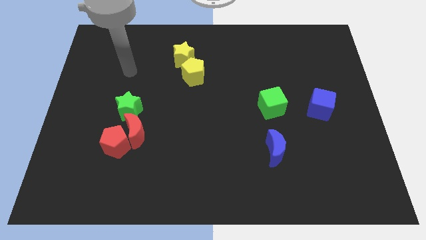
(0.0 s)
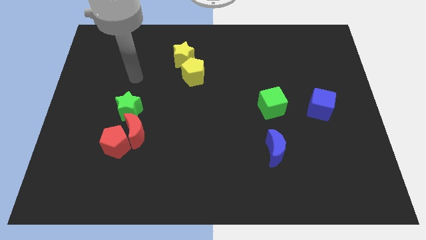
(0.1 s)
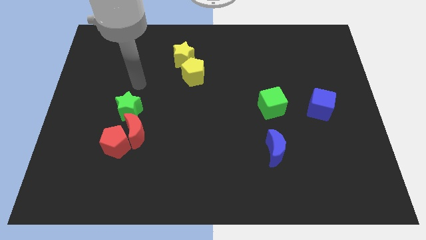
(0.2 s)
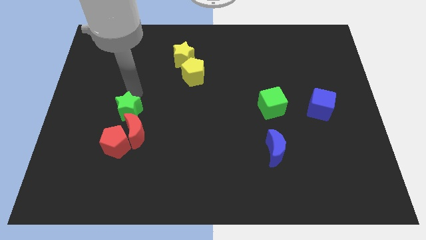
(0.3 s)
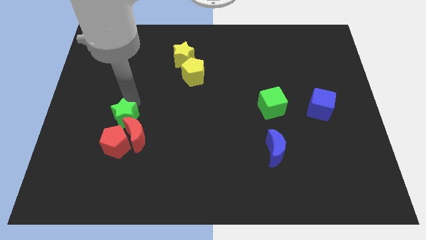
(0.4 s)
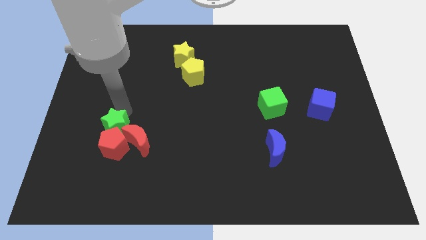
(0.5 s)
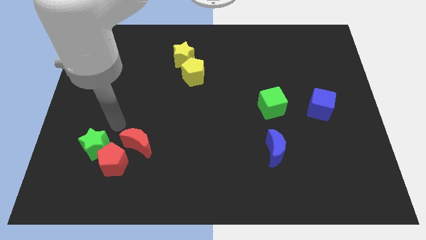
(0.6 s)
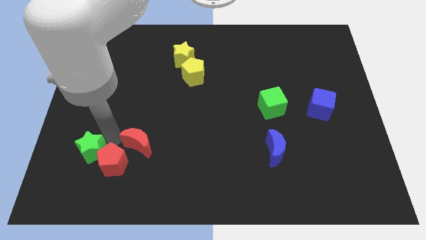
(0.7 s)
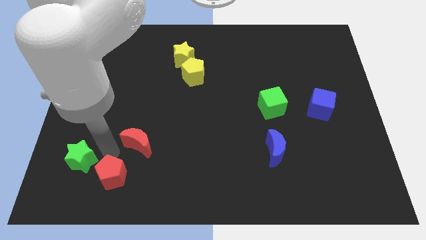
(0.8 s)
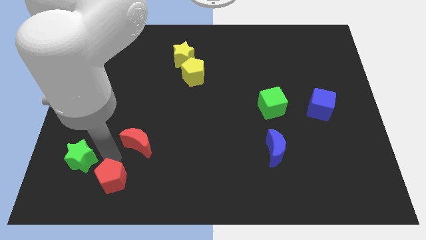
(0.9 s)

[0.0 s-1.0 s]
pull the red moon apart from the red pentagon and green star

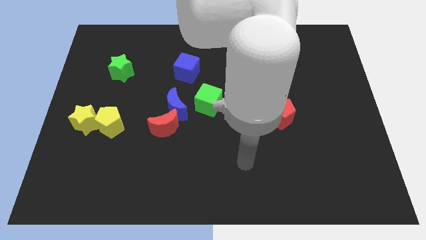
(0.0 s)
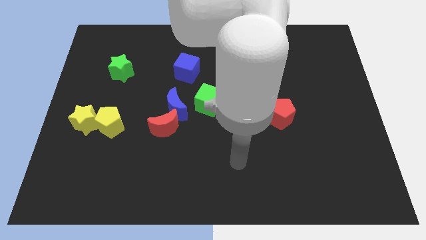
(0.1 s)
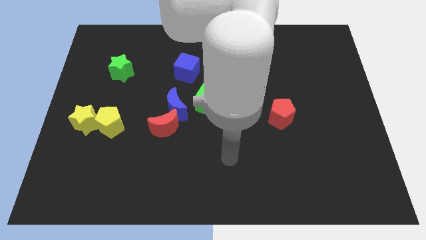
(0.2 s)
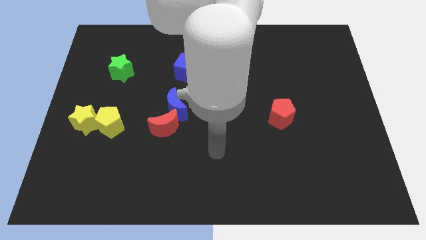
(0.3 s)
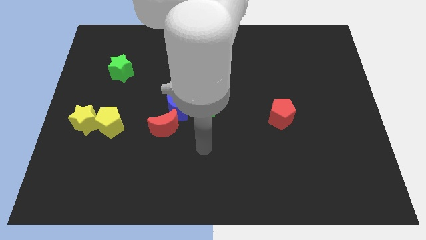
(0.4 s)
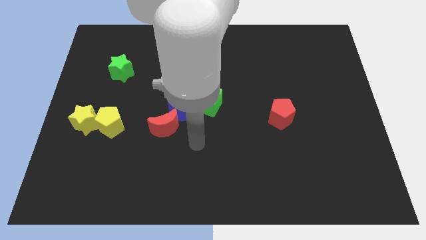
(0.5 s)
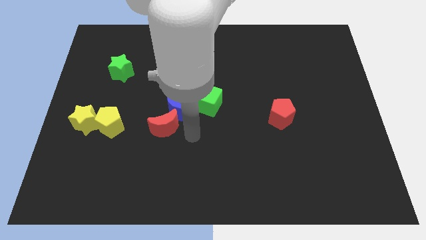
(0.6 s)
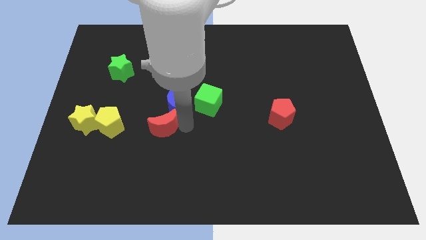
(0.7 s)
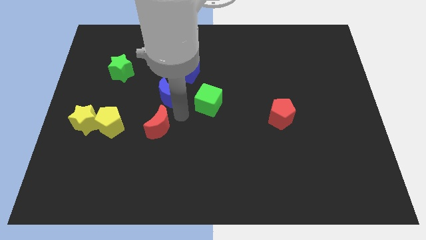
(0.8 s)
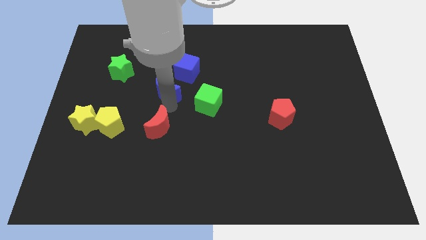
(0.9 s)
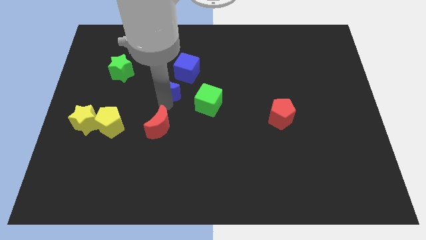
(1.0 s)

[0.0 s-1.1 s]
separate the red moon from the blue moon

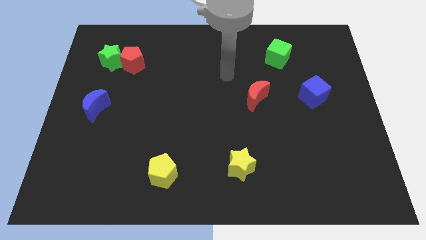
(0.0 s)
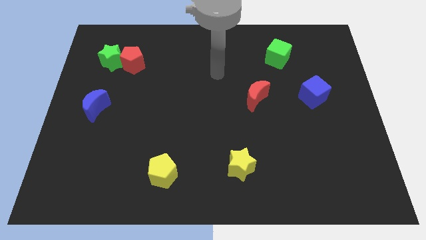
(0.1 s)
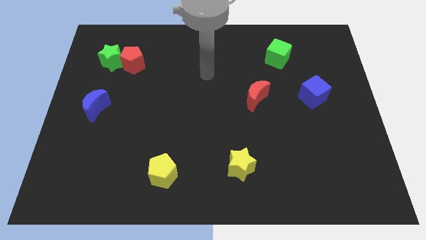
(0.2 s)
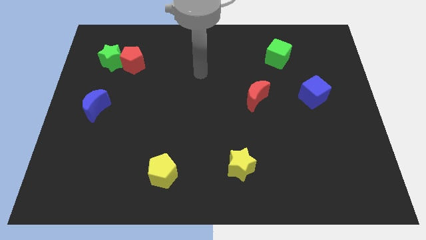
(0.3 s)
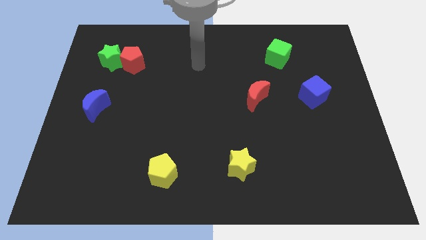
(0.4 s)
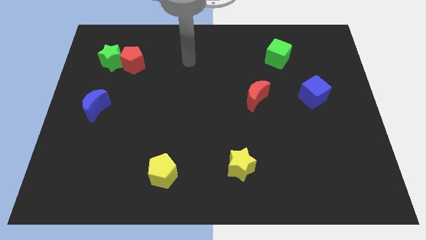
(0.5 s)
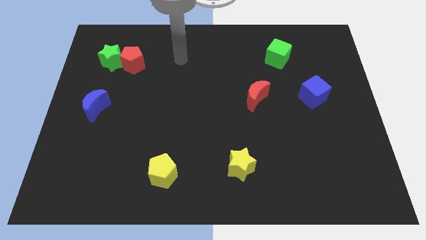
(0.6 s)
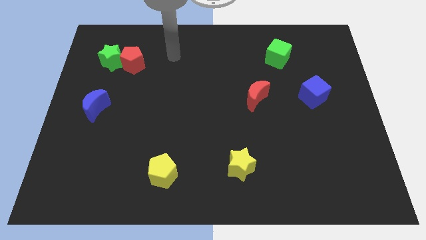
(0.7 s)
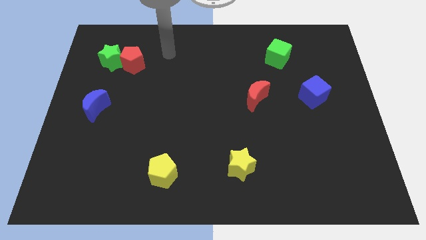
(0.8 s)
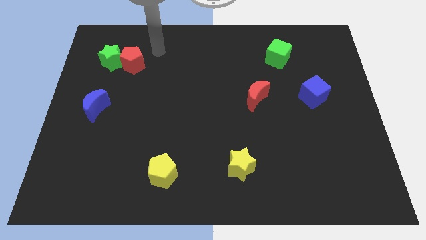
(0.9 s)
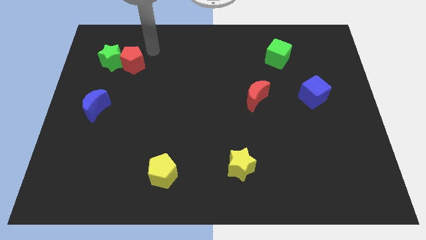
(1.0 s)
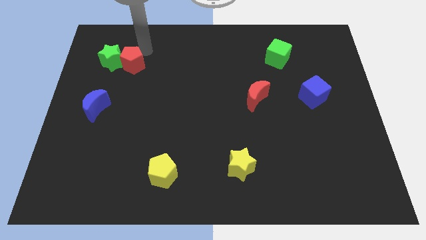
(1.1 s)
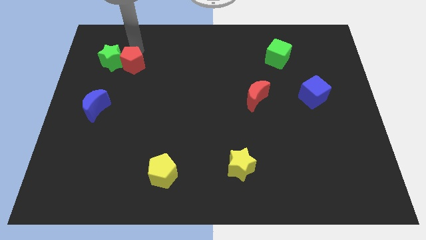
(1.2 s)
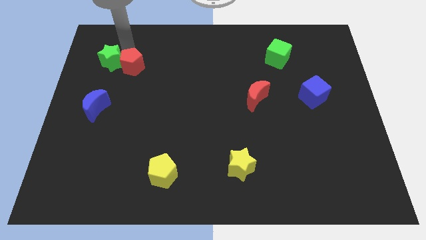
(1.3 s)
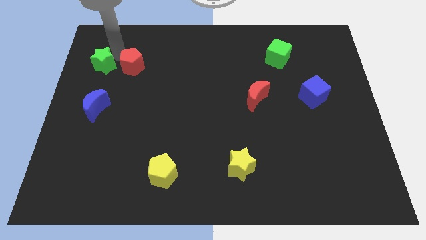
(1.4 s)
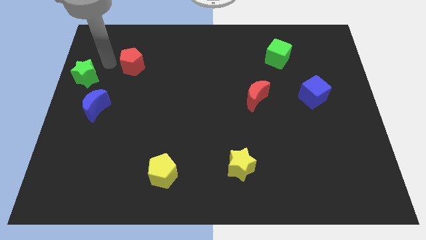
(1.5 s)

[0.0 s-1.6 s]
separate the red pentagon from the green star

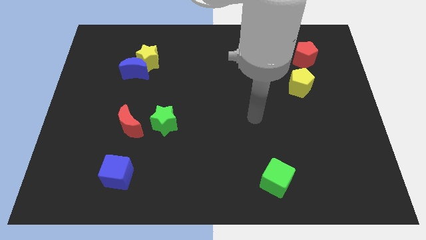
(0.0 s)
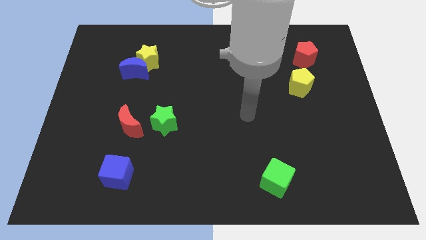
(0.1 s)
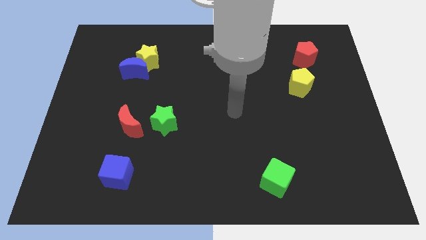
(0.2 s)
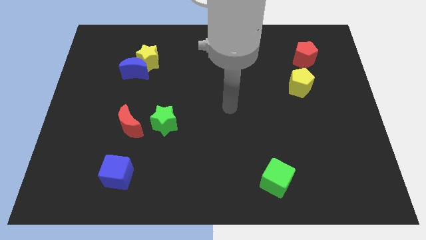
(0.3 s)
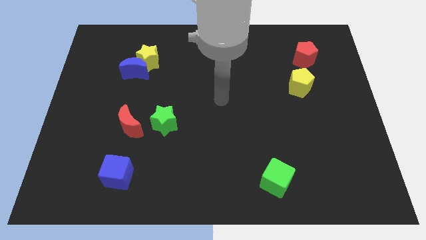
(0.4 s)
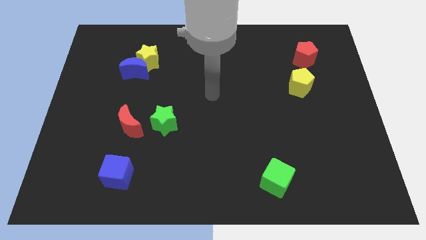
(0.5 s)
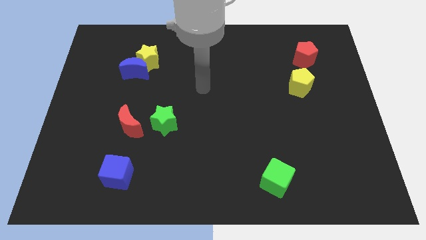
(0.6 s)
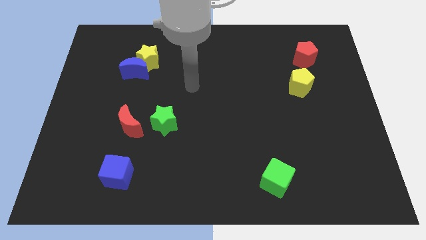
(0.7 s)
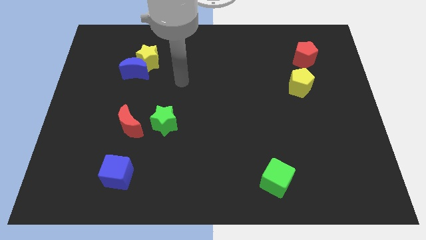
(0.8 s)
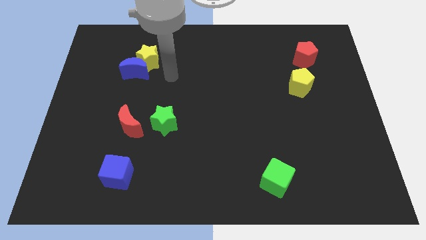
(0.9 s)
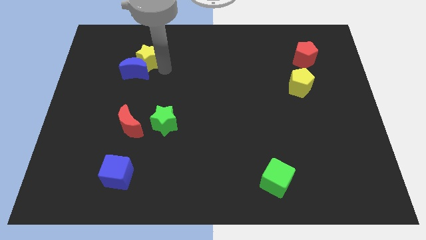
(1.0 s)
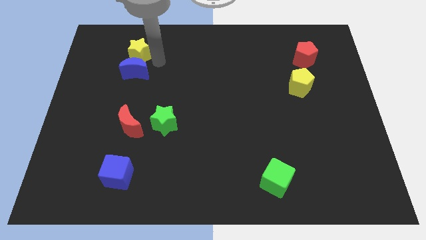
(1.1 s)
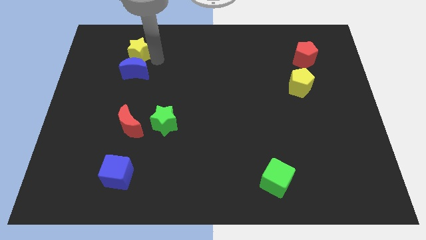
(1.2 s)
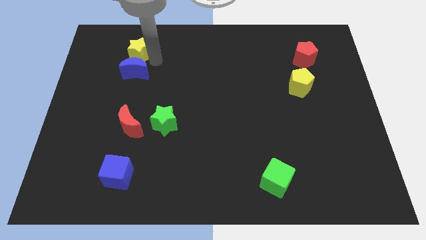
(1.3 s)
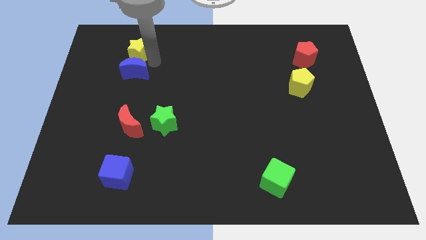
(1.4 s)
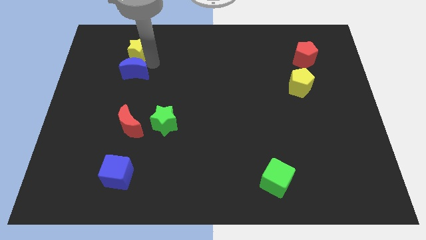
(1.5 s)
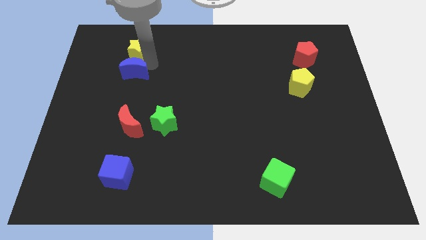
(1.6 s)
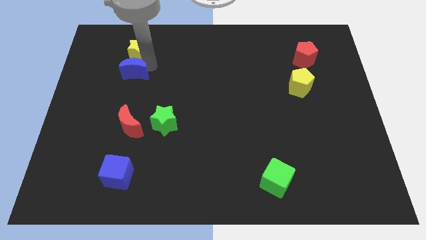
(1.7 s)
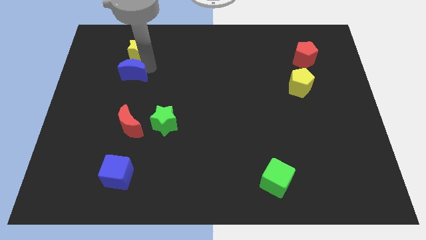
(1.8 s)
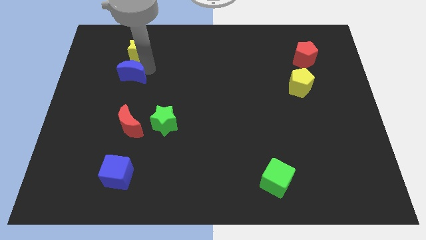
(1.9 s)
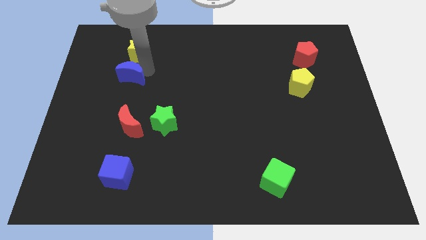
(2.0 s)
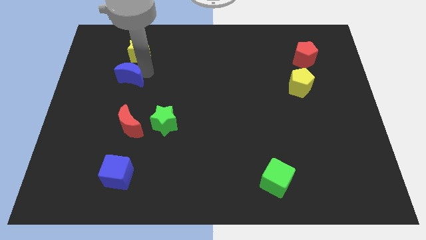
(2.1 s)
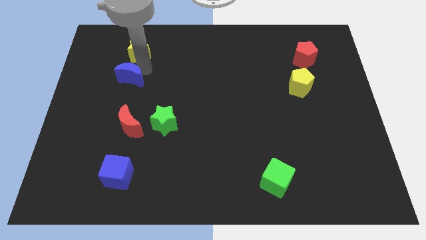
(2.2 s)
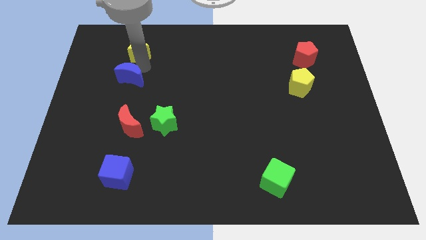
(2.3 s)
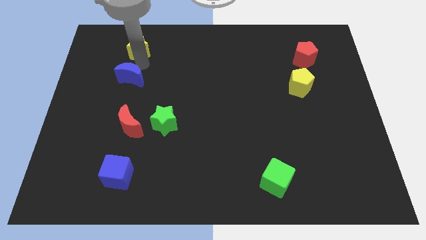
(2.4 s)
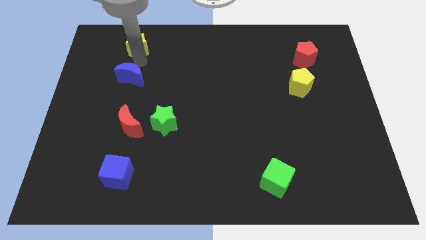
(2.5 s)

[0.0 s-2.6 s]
separate the blue moon from the yellow star

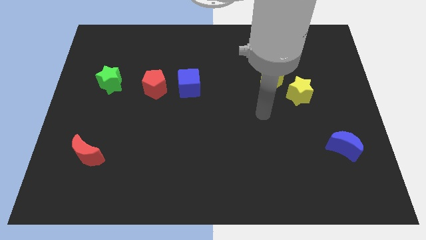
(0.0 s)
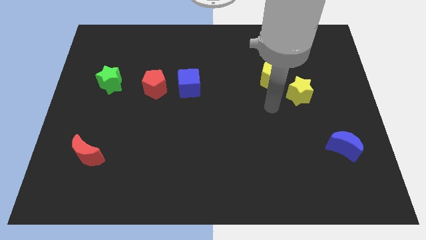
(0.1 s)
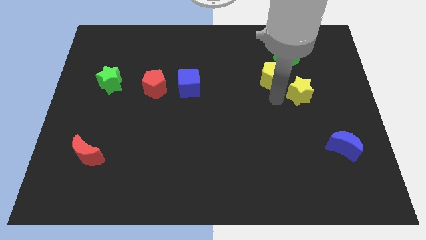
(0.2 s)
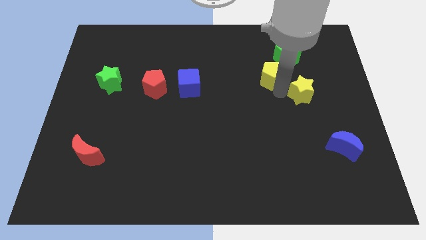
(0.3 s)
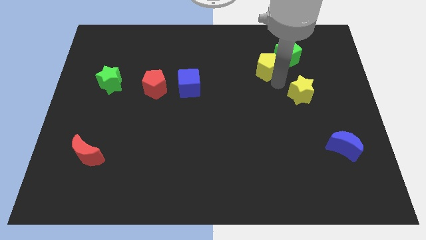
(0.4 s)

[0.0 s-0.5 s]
pull the yellow star apart from the yellow pentagon

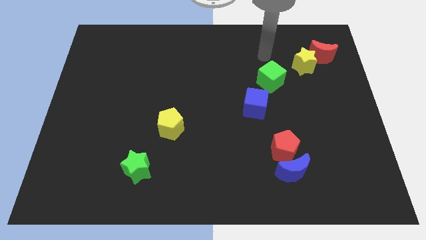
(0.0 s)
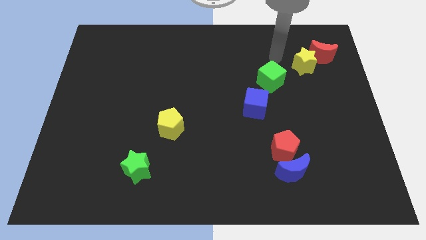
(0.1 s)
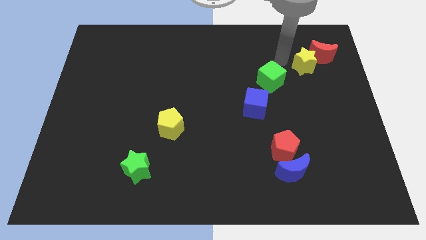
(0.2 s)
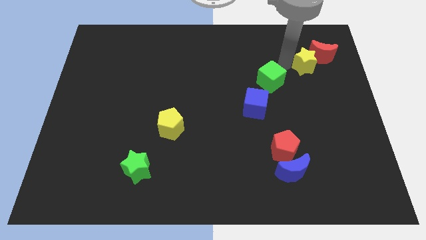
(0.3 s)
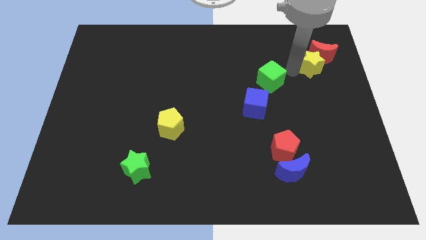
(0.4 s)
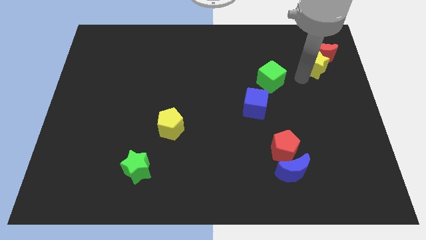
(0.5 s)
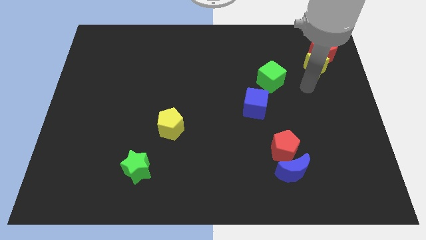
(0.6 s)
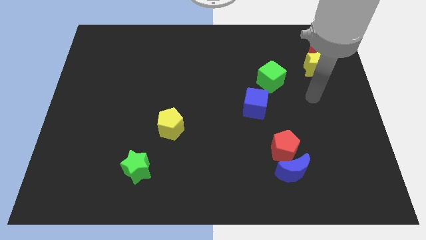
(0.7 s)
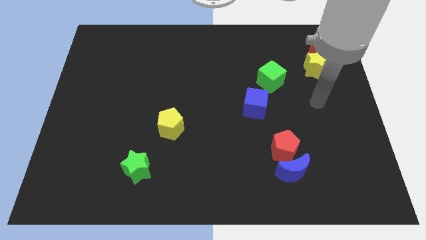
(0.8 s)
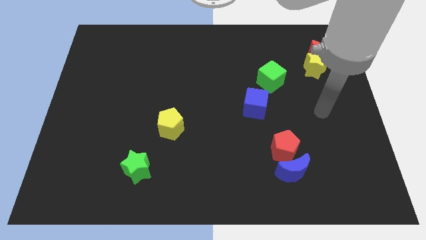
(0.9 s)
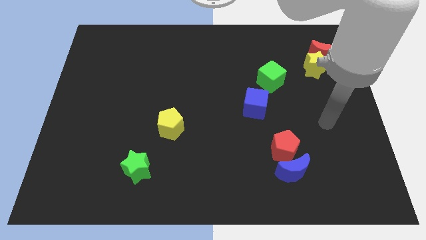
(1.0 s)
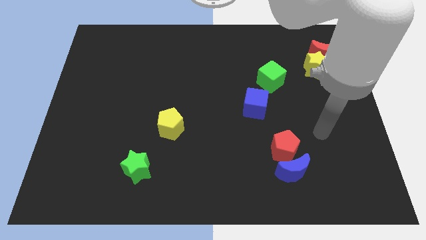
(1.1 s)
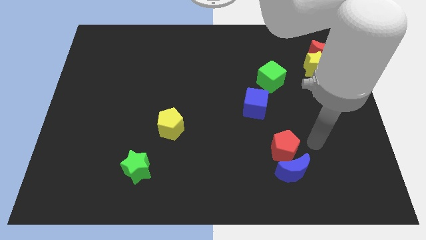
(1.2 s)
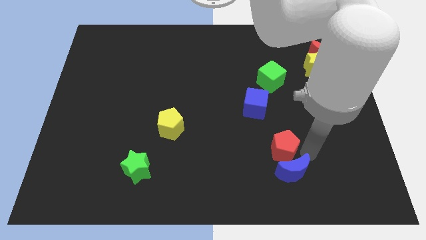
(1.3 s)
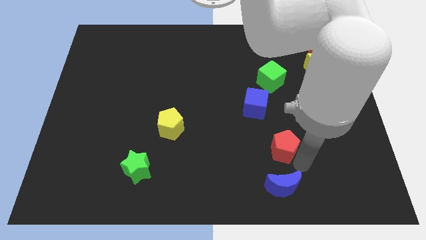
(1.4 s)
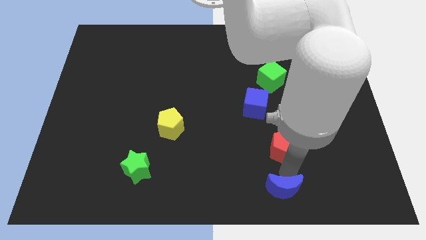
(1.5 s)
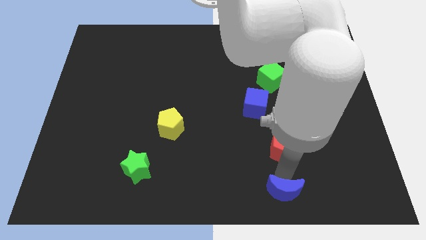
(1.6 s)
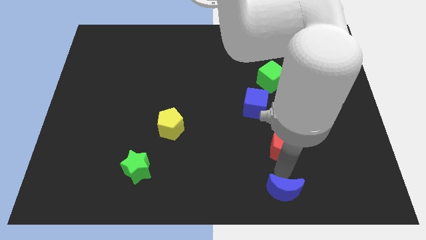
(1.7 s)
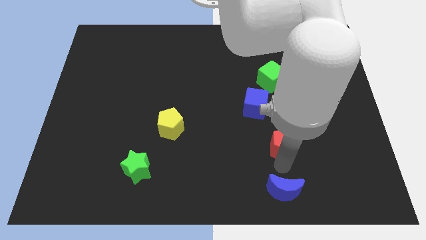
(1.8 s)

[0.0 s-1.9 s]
move the red pentagon away from the blue moon

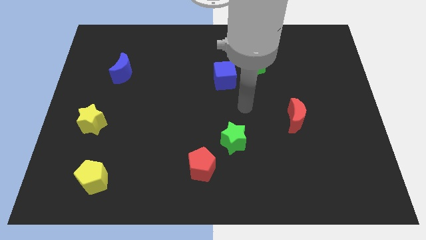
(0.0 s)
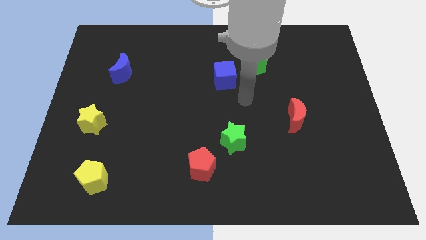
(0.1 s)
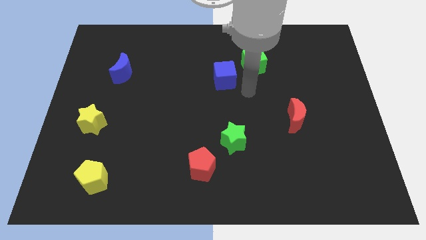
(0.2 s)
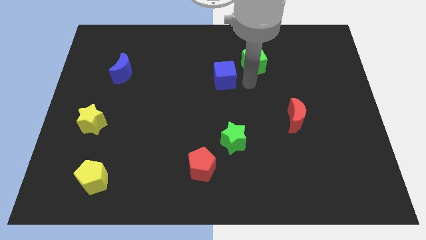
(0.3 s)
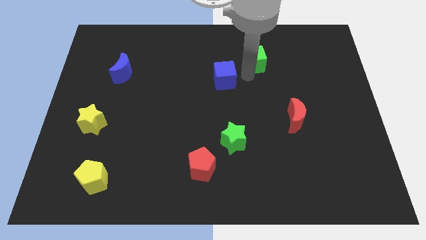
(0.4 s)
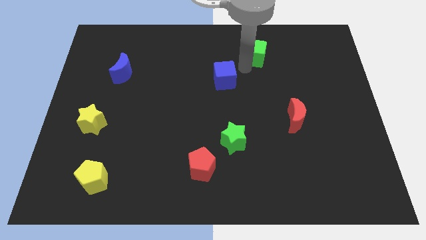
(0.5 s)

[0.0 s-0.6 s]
separate the blue cube from the green cube

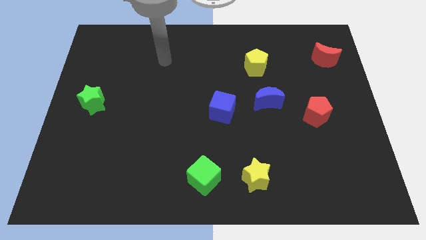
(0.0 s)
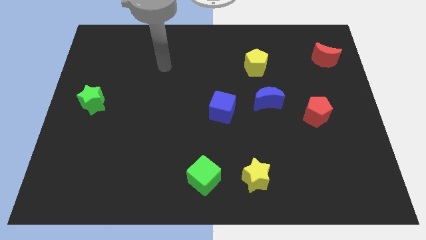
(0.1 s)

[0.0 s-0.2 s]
move the green cube away from the yellow star
